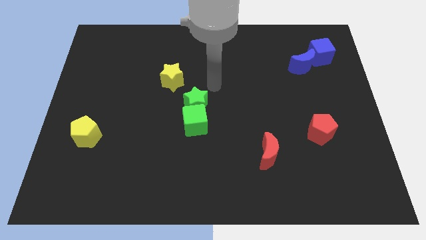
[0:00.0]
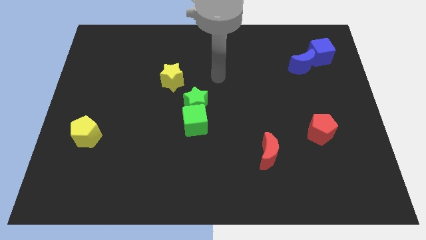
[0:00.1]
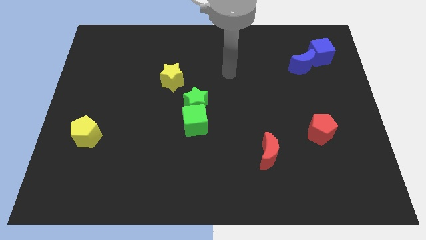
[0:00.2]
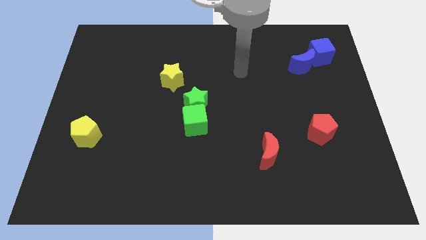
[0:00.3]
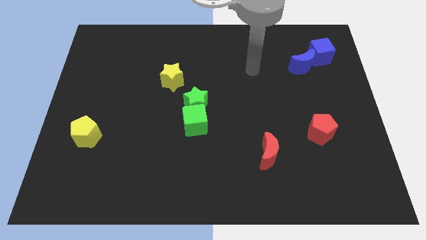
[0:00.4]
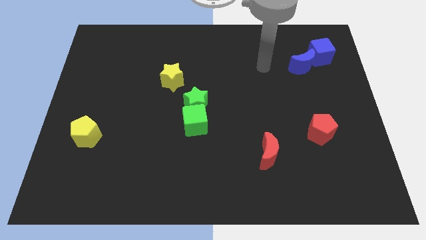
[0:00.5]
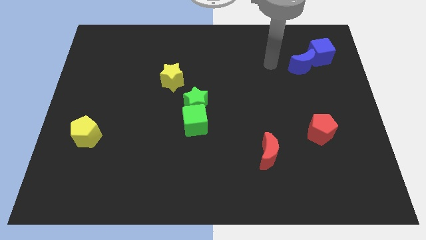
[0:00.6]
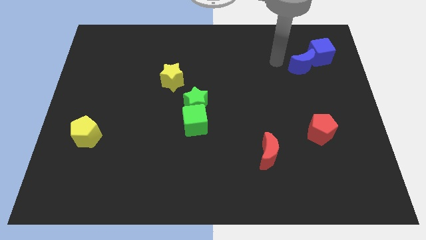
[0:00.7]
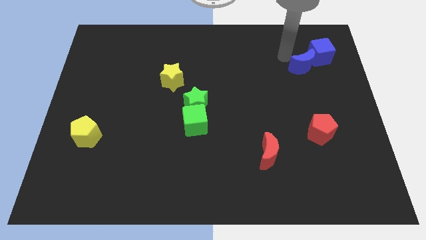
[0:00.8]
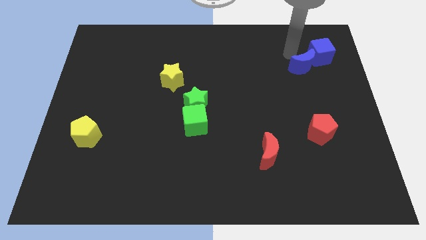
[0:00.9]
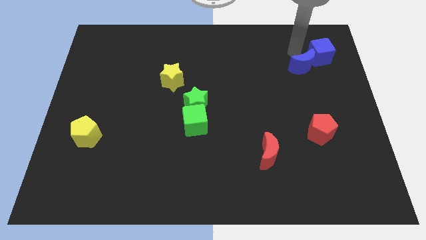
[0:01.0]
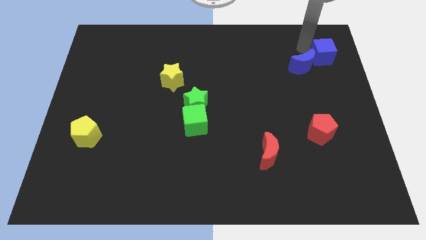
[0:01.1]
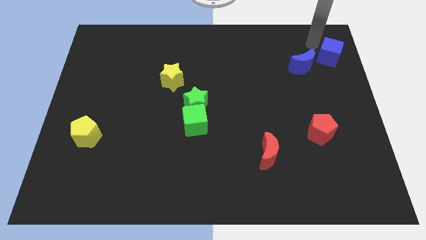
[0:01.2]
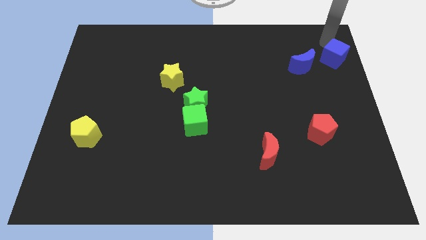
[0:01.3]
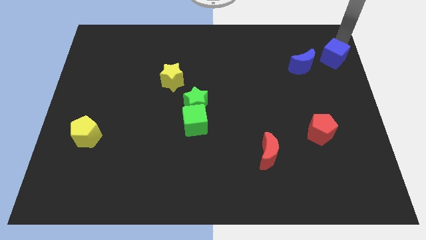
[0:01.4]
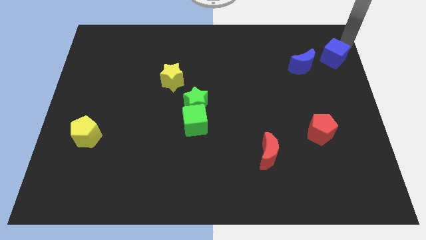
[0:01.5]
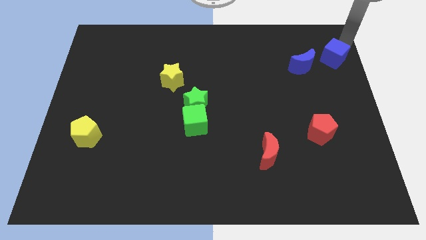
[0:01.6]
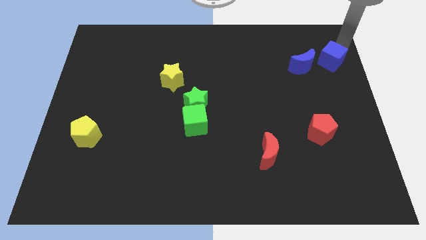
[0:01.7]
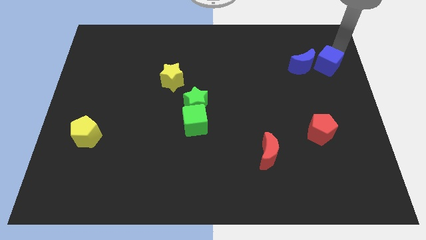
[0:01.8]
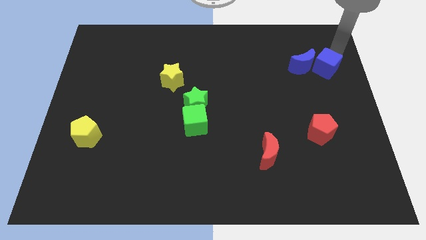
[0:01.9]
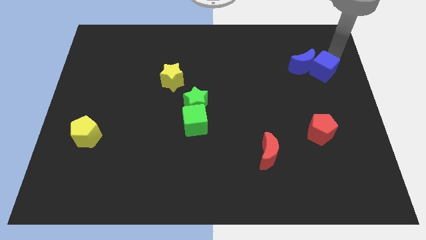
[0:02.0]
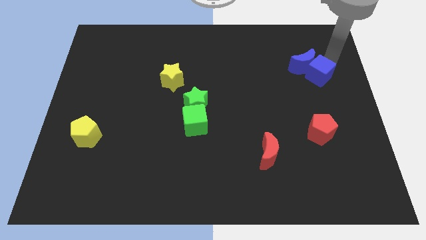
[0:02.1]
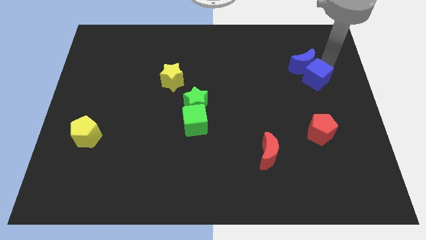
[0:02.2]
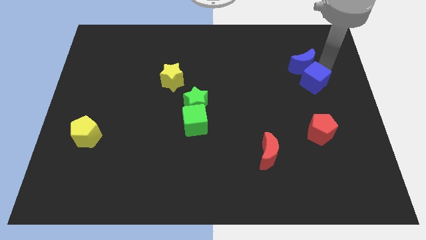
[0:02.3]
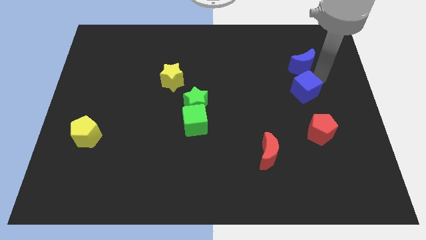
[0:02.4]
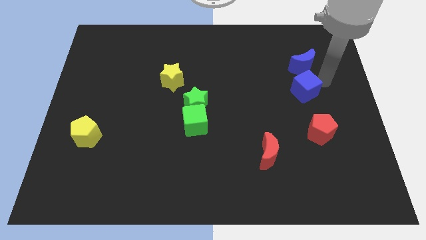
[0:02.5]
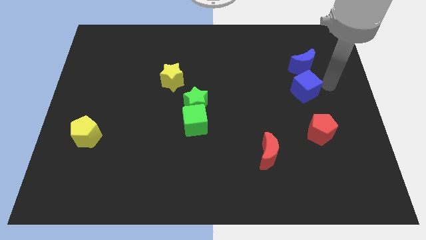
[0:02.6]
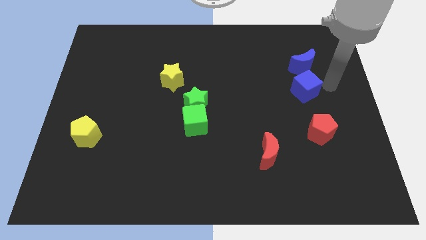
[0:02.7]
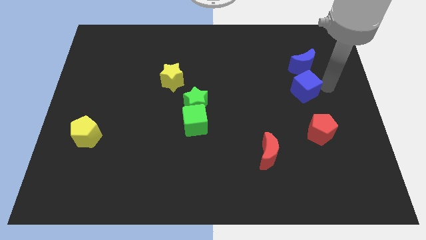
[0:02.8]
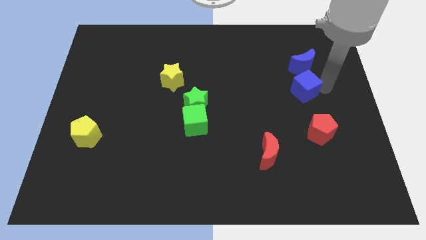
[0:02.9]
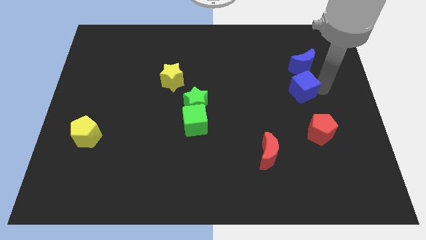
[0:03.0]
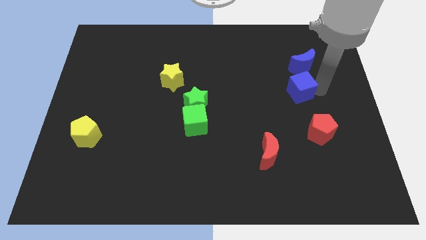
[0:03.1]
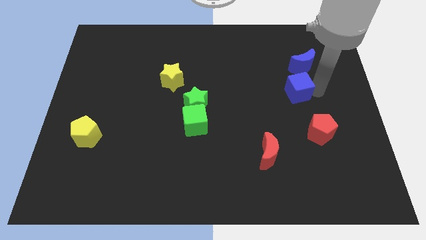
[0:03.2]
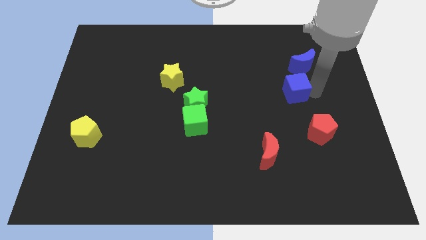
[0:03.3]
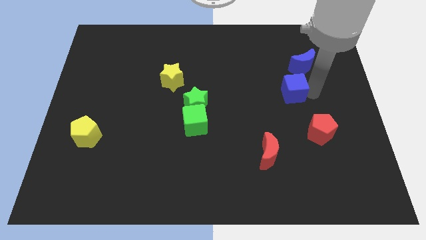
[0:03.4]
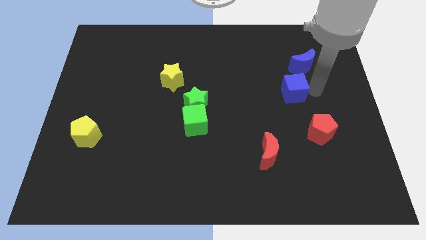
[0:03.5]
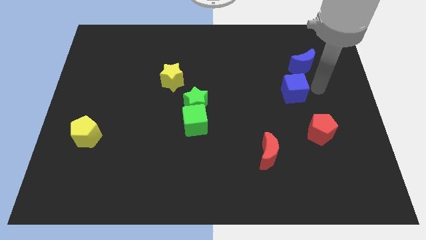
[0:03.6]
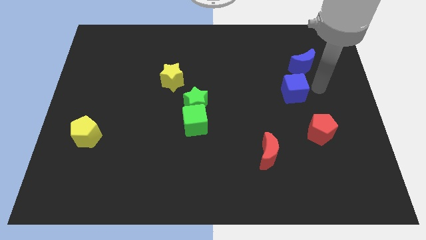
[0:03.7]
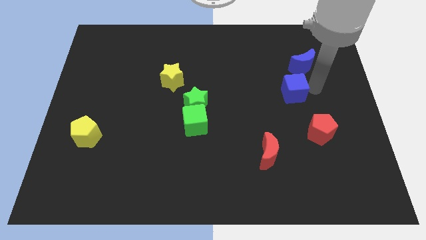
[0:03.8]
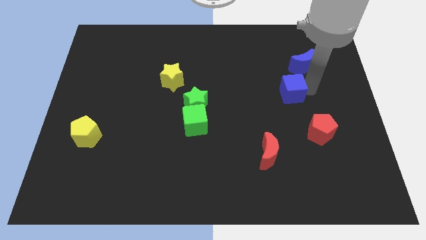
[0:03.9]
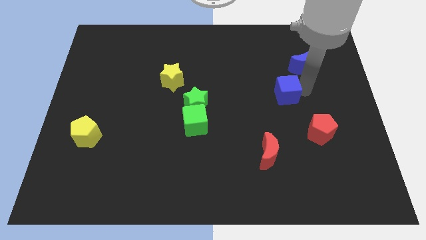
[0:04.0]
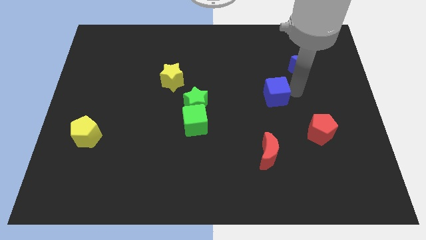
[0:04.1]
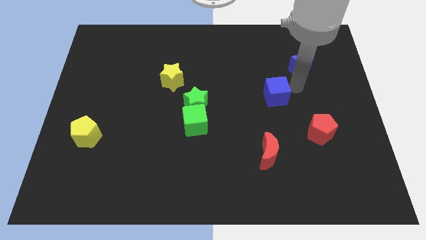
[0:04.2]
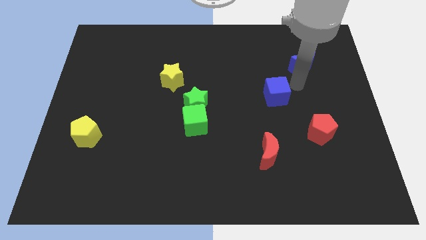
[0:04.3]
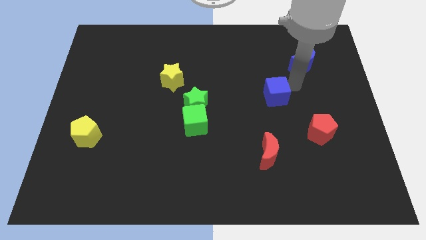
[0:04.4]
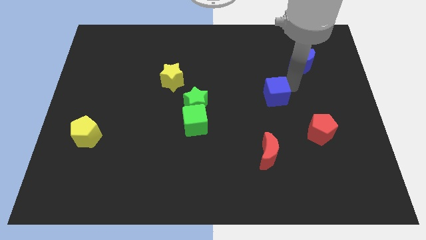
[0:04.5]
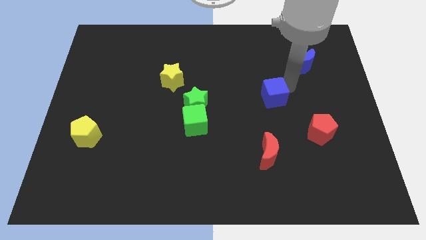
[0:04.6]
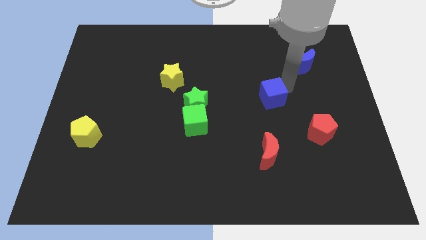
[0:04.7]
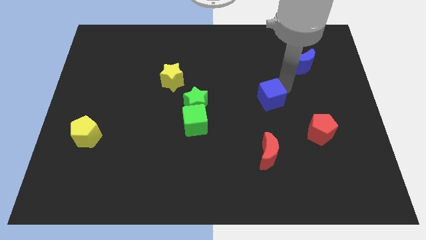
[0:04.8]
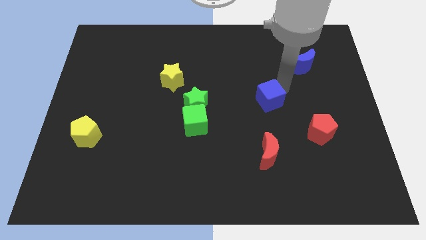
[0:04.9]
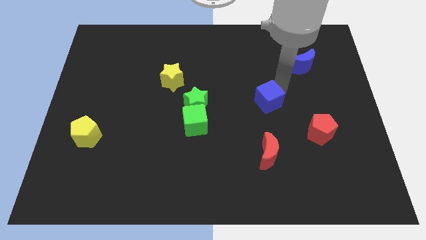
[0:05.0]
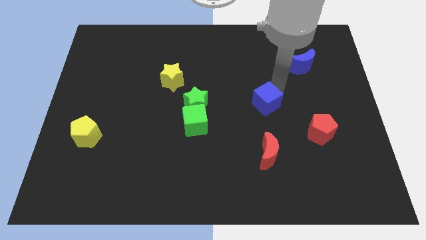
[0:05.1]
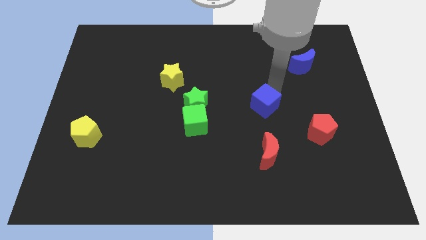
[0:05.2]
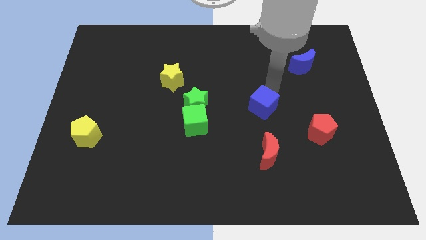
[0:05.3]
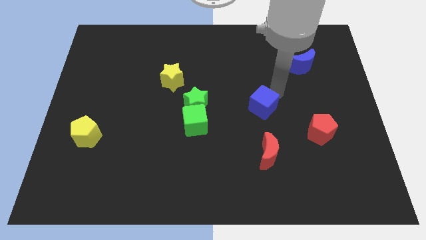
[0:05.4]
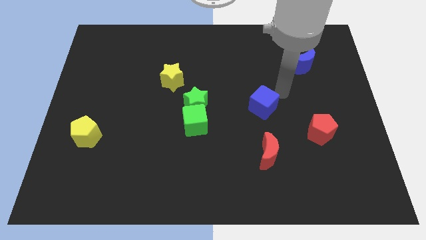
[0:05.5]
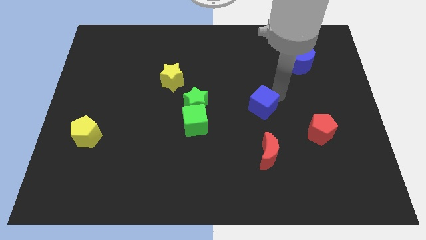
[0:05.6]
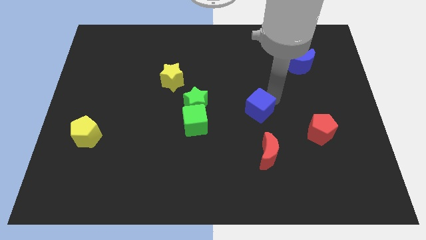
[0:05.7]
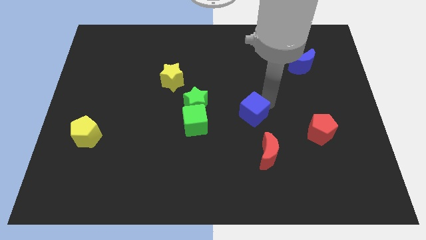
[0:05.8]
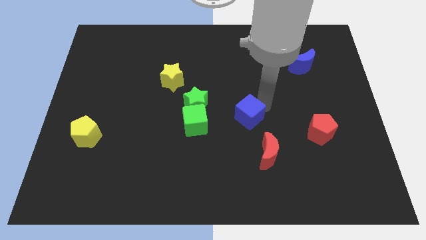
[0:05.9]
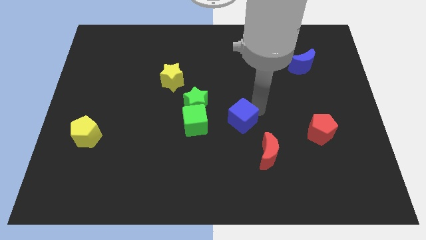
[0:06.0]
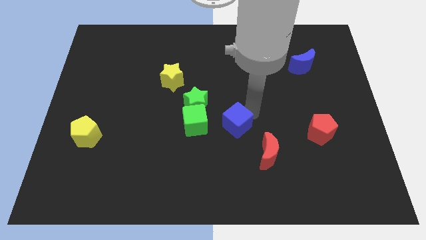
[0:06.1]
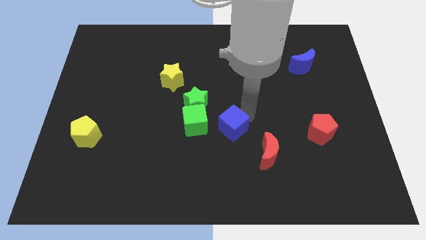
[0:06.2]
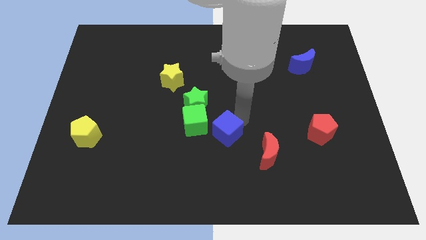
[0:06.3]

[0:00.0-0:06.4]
move the blue cube to the bottom right of the green cube

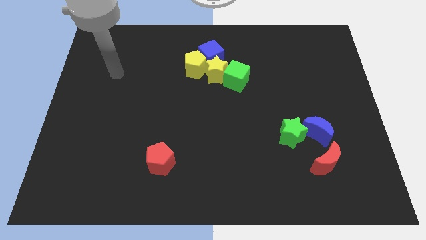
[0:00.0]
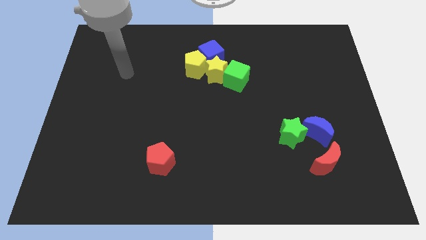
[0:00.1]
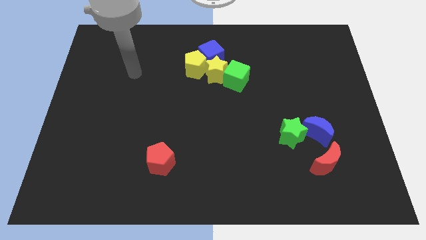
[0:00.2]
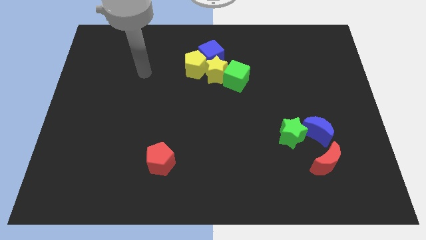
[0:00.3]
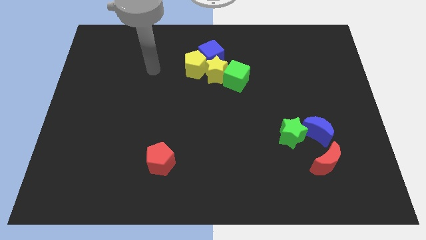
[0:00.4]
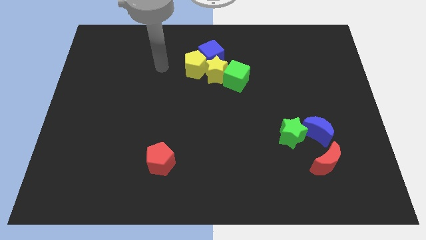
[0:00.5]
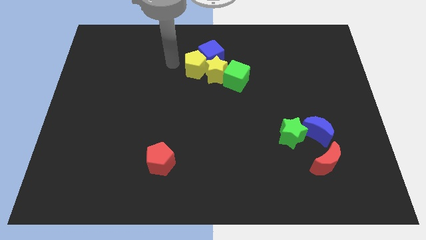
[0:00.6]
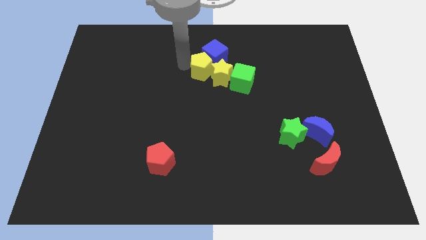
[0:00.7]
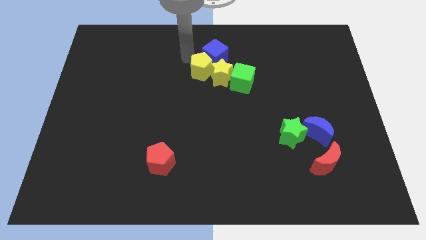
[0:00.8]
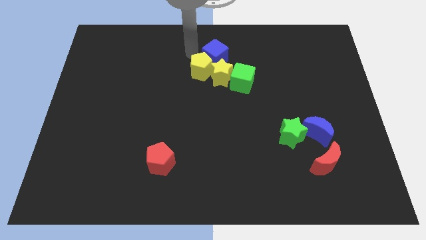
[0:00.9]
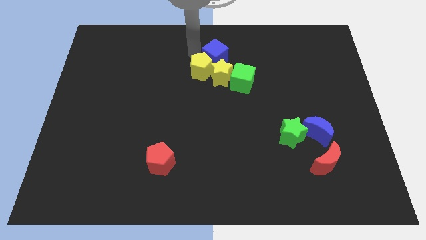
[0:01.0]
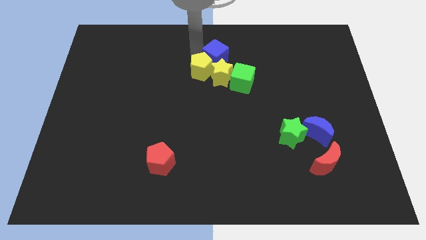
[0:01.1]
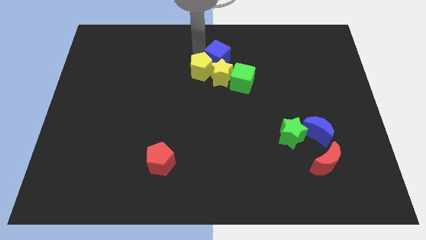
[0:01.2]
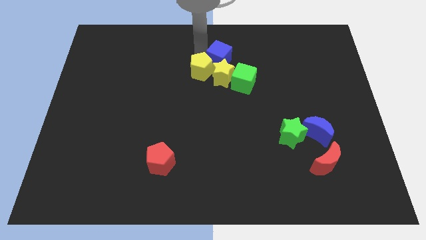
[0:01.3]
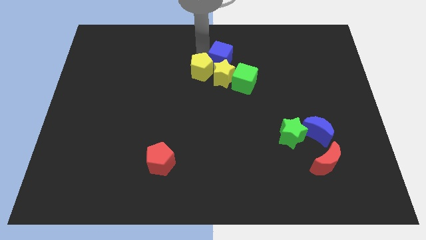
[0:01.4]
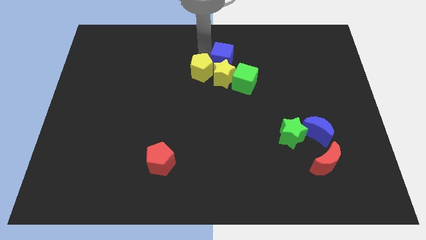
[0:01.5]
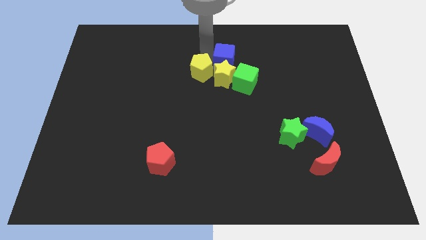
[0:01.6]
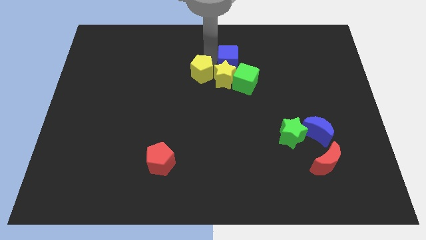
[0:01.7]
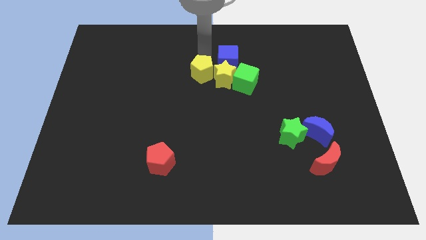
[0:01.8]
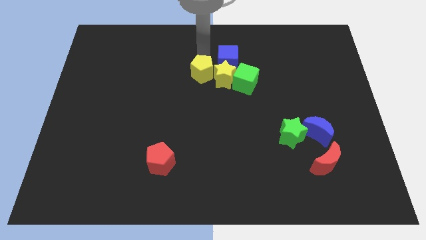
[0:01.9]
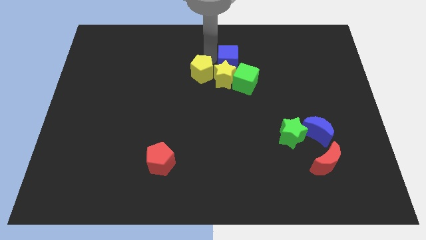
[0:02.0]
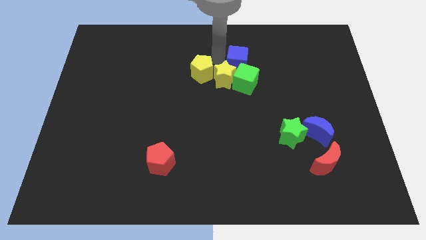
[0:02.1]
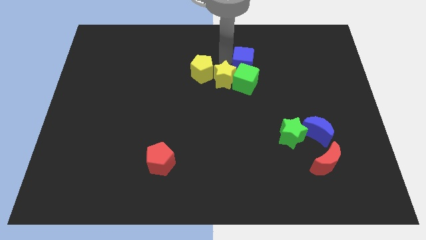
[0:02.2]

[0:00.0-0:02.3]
push the blue cube to the top right side of the green cube
